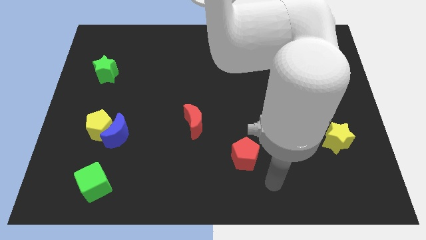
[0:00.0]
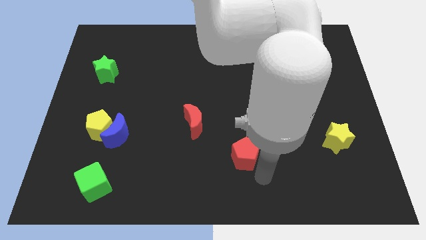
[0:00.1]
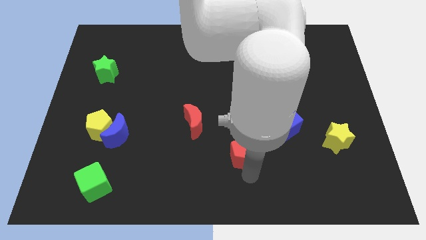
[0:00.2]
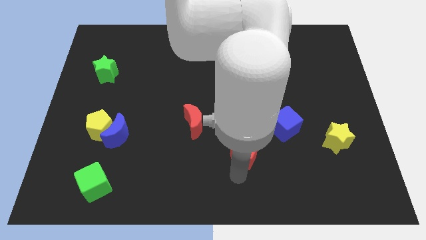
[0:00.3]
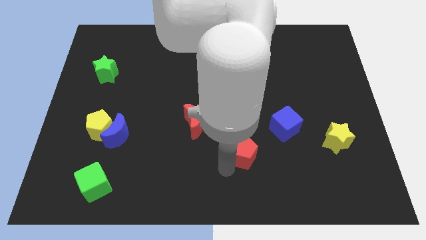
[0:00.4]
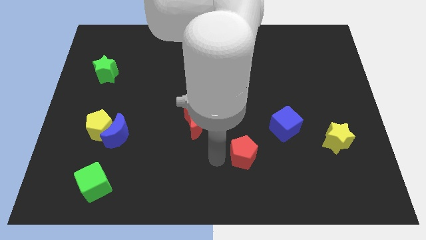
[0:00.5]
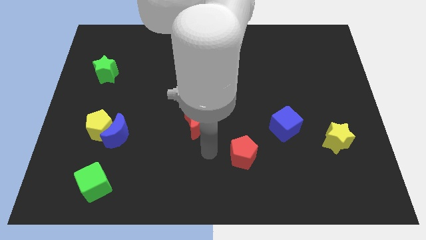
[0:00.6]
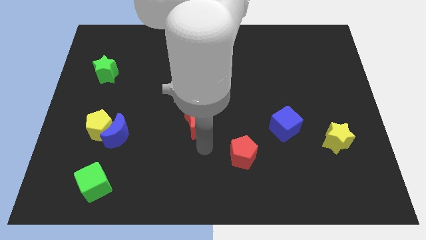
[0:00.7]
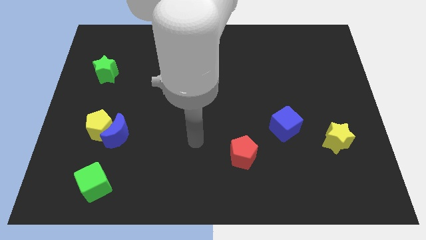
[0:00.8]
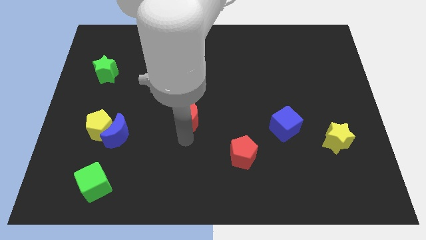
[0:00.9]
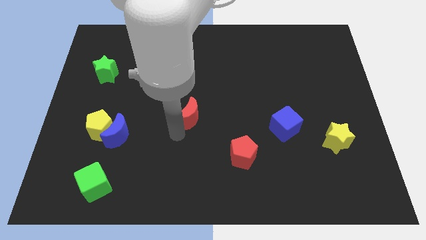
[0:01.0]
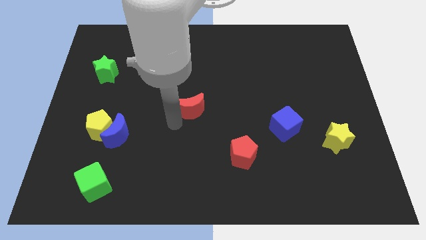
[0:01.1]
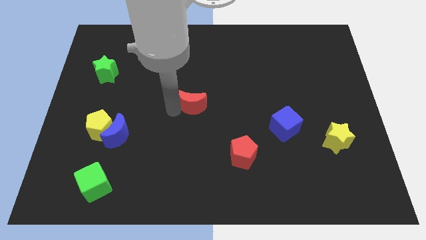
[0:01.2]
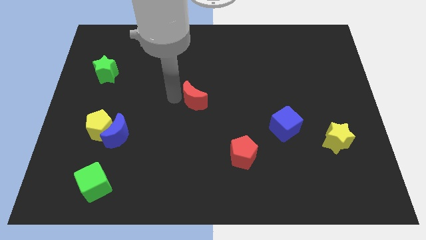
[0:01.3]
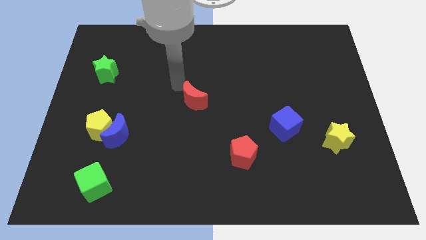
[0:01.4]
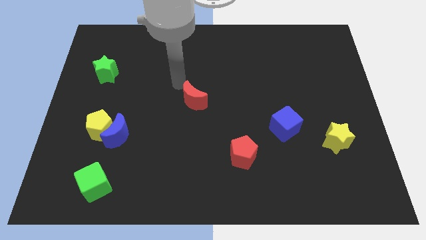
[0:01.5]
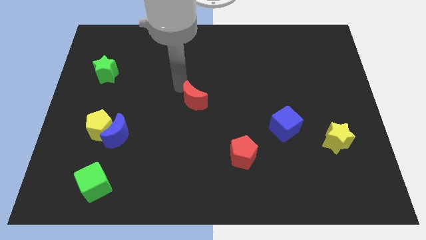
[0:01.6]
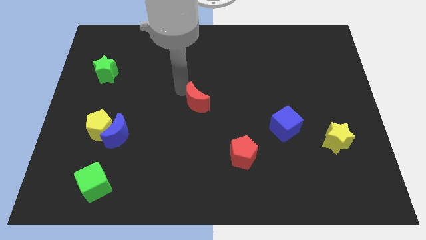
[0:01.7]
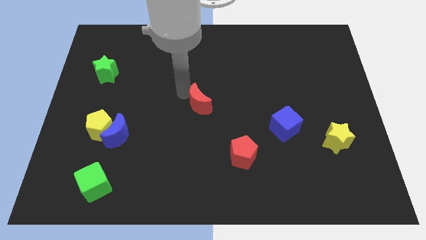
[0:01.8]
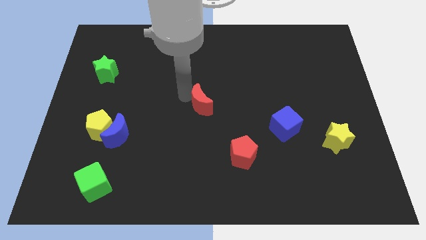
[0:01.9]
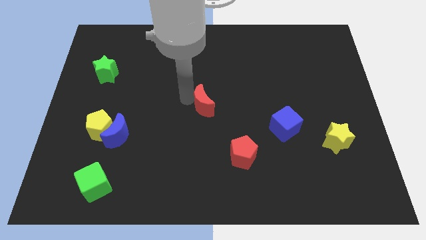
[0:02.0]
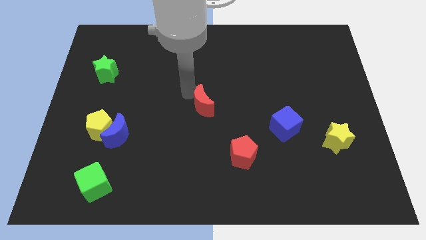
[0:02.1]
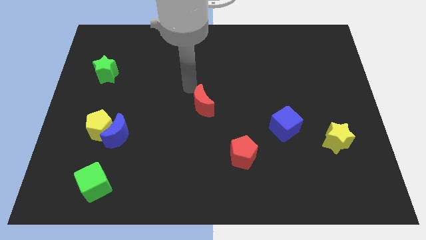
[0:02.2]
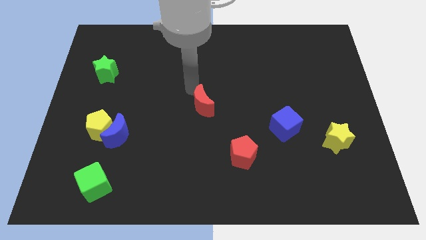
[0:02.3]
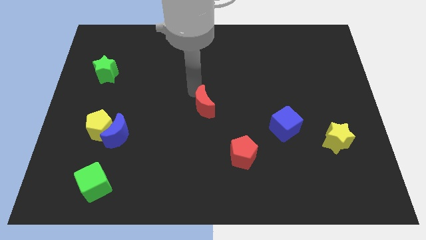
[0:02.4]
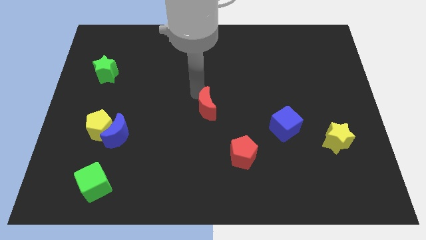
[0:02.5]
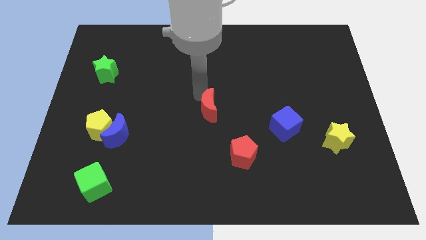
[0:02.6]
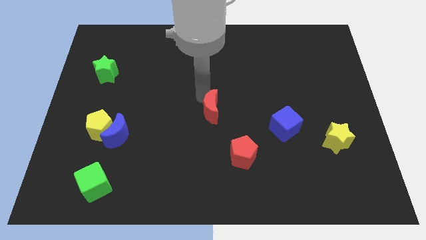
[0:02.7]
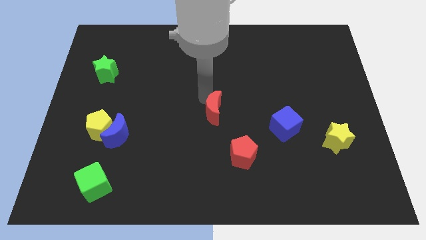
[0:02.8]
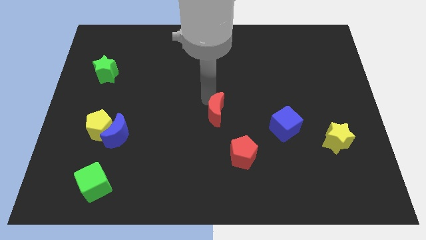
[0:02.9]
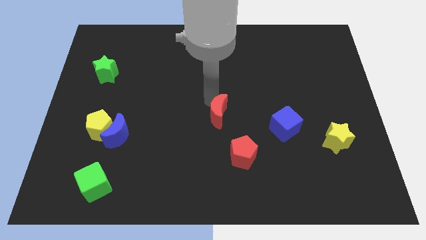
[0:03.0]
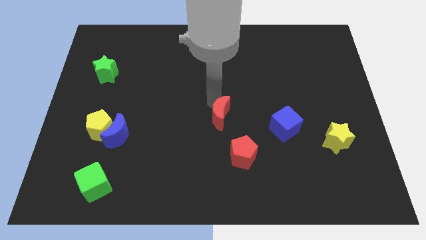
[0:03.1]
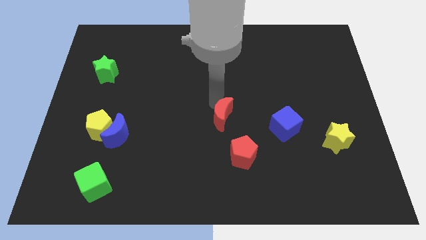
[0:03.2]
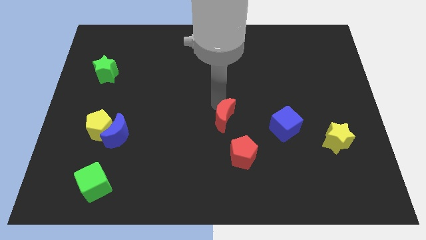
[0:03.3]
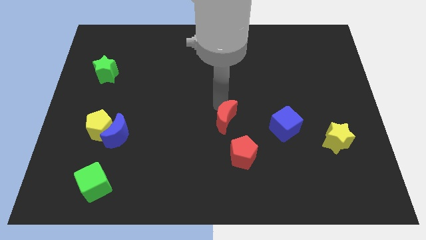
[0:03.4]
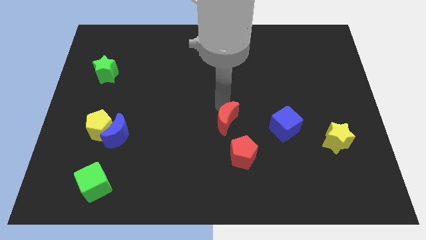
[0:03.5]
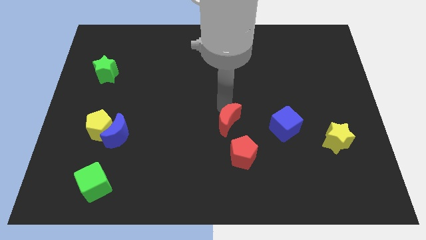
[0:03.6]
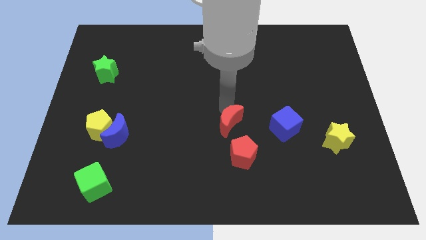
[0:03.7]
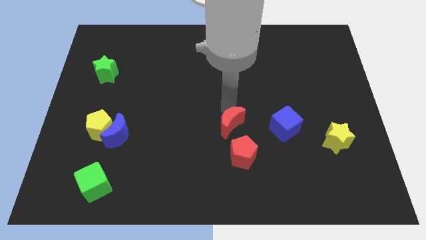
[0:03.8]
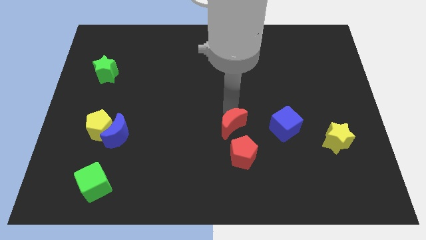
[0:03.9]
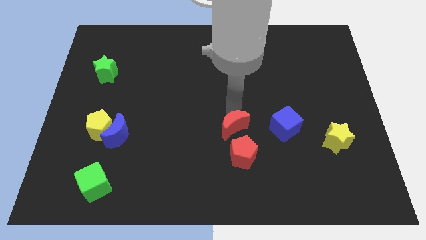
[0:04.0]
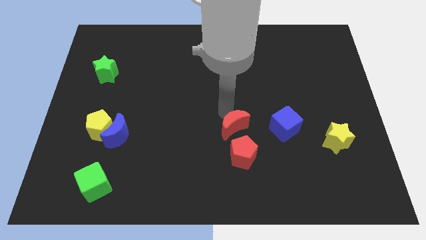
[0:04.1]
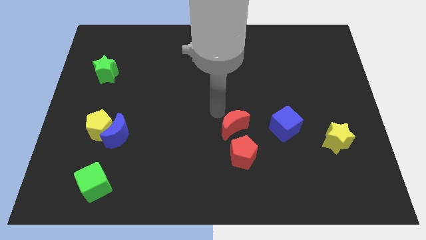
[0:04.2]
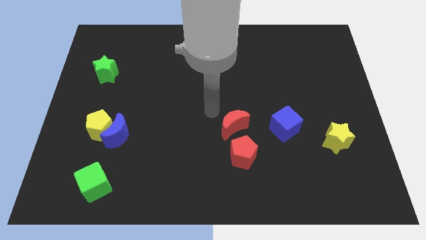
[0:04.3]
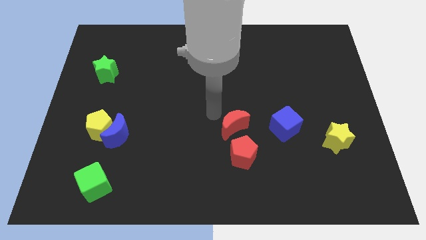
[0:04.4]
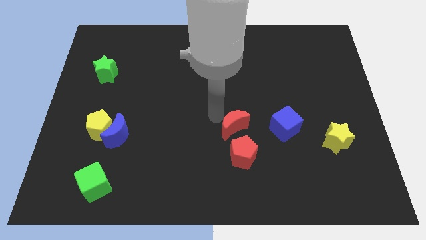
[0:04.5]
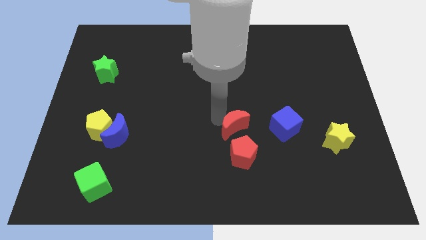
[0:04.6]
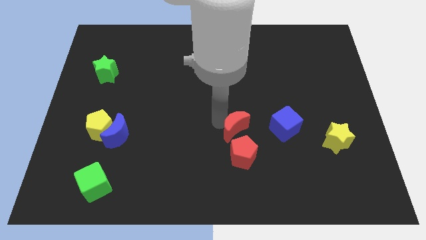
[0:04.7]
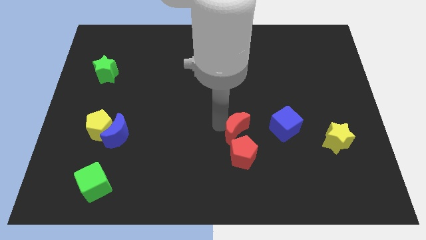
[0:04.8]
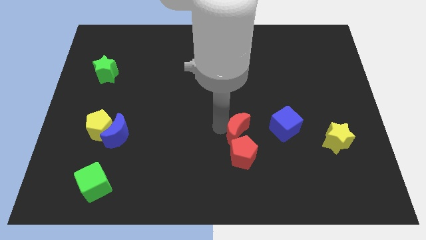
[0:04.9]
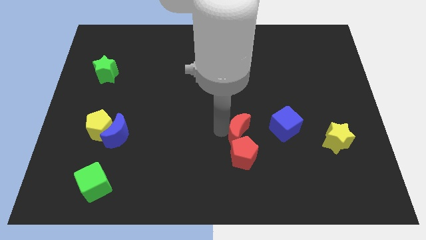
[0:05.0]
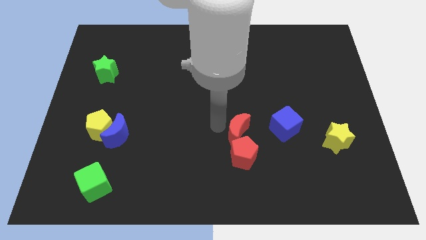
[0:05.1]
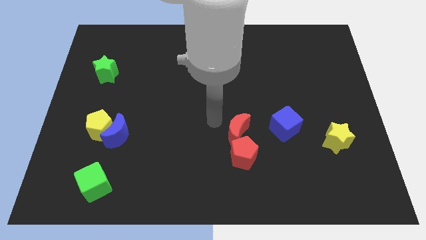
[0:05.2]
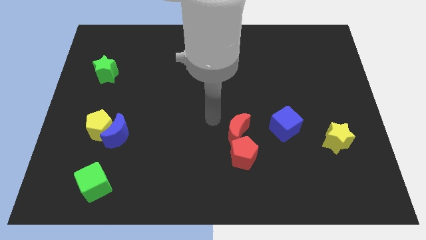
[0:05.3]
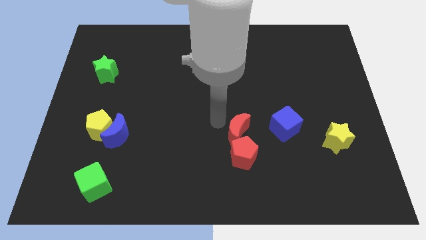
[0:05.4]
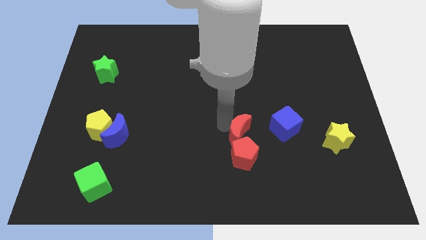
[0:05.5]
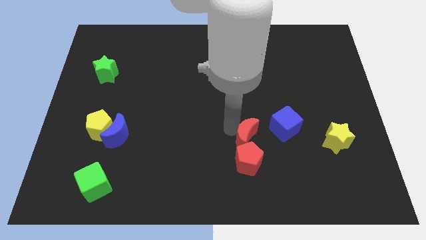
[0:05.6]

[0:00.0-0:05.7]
slide the red moon diagonally down and to the left of the blue cube

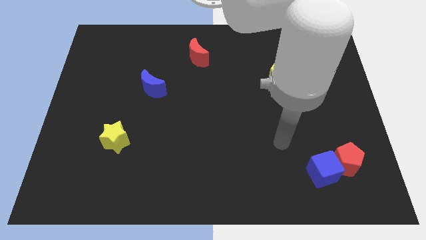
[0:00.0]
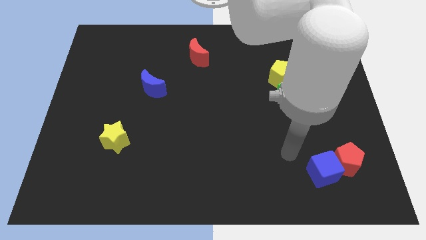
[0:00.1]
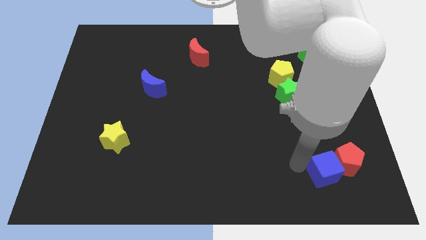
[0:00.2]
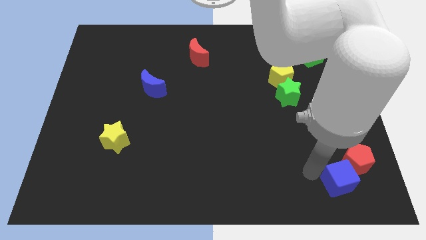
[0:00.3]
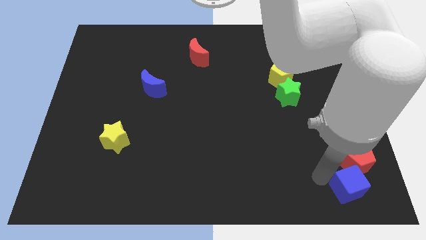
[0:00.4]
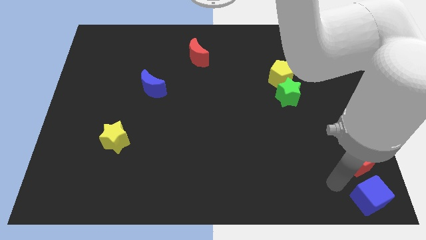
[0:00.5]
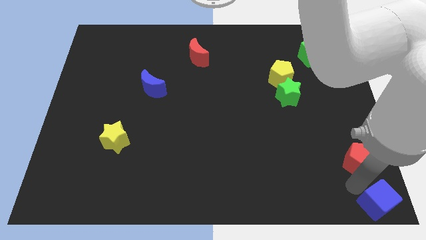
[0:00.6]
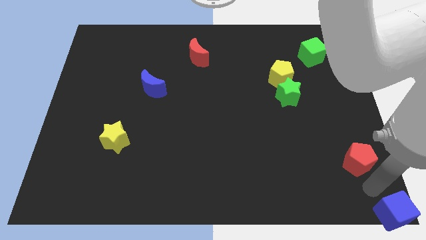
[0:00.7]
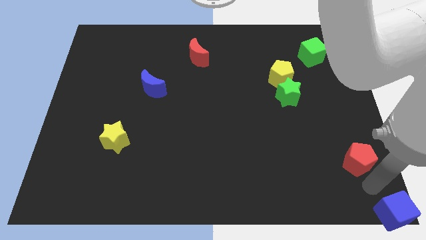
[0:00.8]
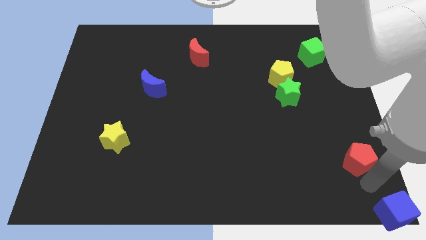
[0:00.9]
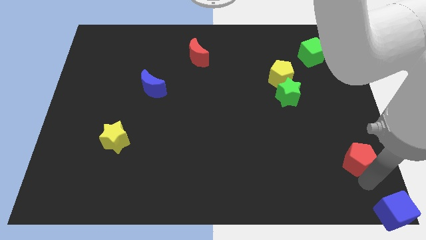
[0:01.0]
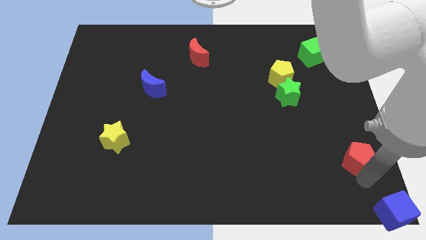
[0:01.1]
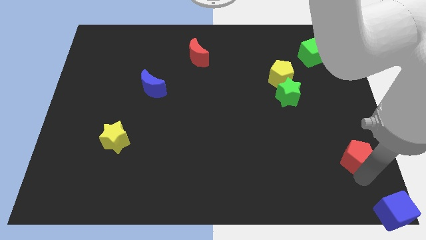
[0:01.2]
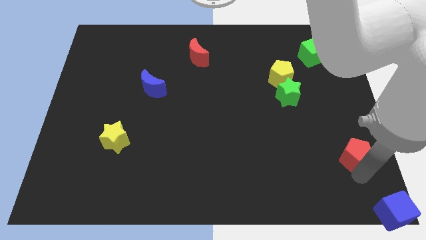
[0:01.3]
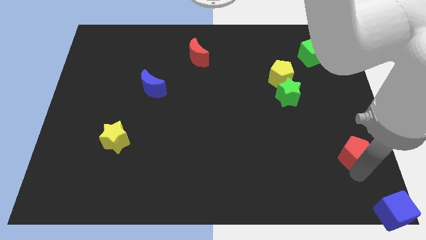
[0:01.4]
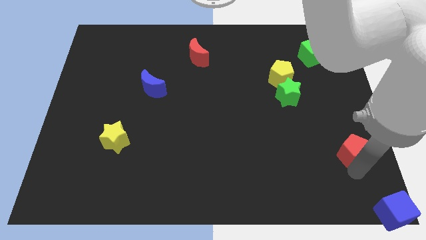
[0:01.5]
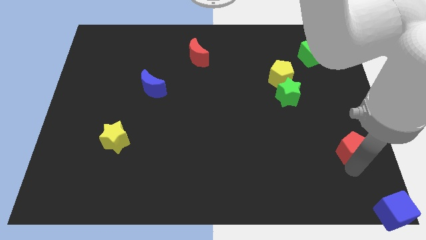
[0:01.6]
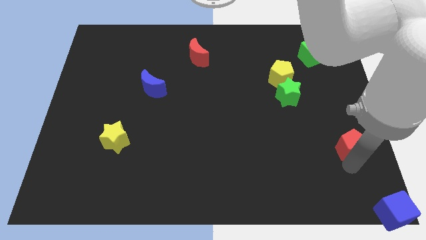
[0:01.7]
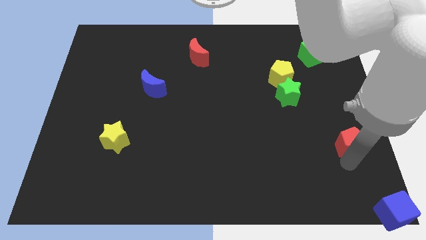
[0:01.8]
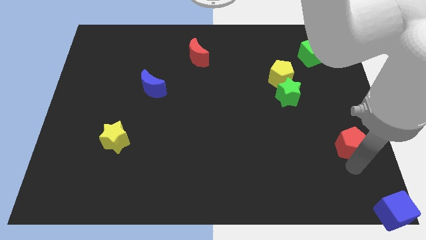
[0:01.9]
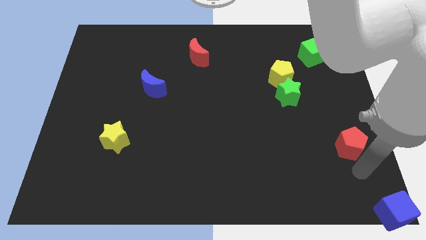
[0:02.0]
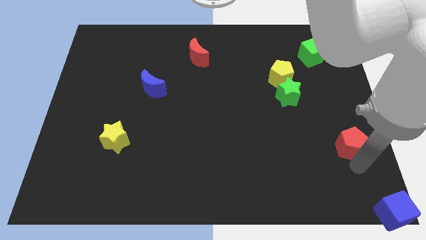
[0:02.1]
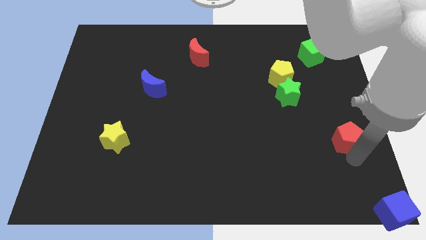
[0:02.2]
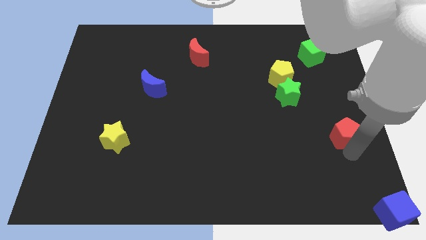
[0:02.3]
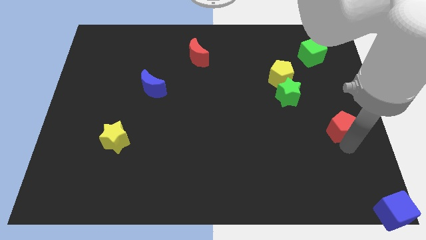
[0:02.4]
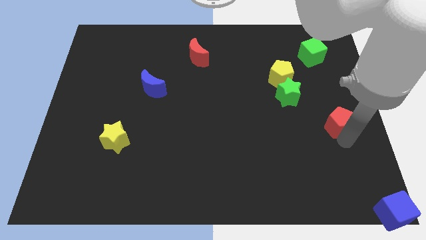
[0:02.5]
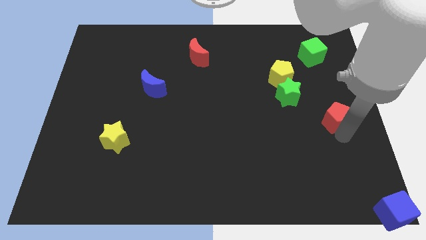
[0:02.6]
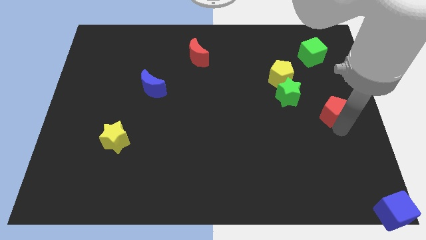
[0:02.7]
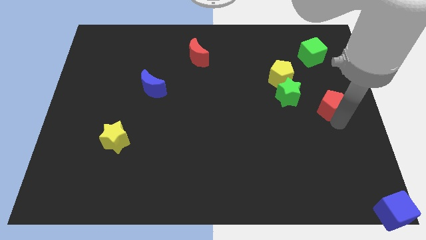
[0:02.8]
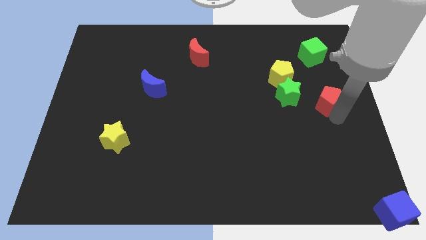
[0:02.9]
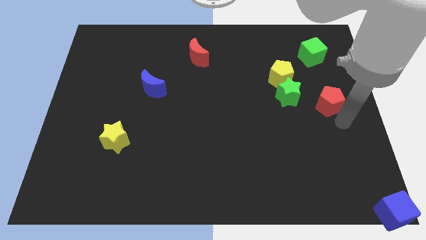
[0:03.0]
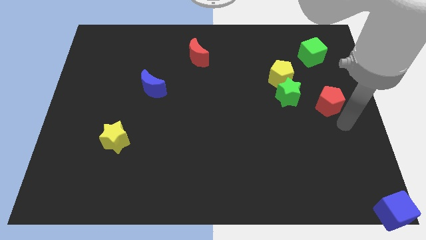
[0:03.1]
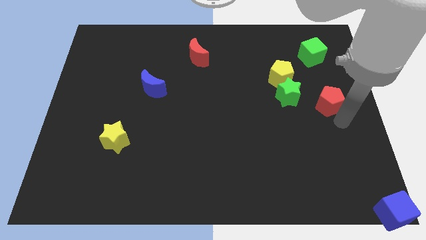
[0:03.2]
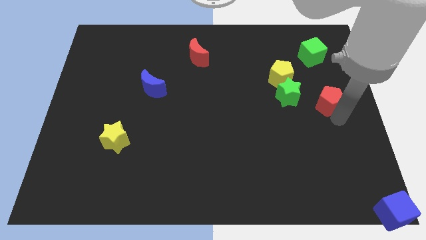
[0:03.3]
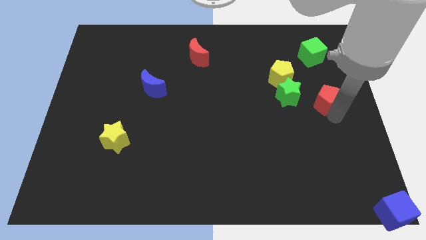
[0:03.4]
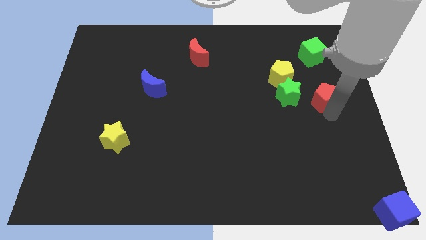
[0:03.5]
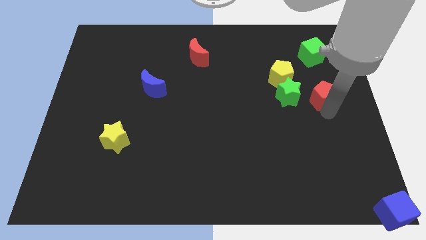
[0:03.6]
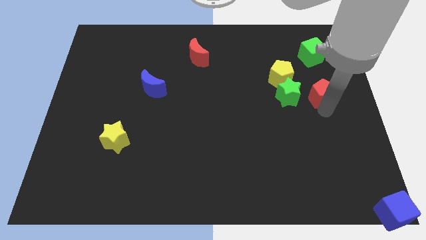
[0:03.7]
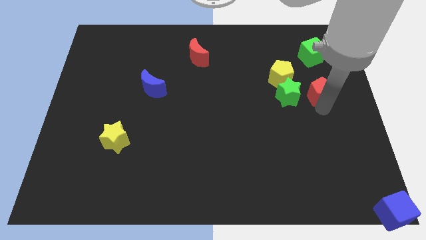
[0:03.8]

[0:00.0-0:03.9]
move the red pentagon diagonally up and to the right of the green star
